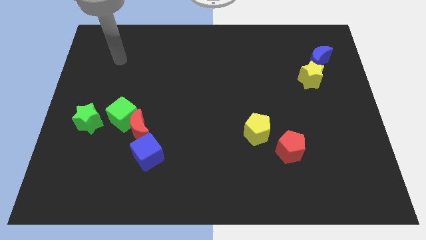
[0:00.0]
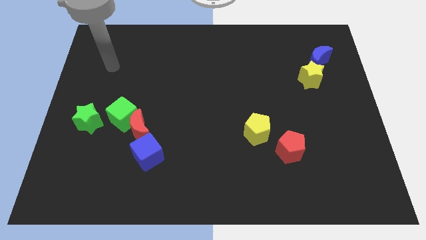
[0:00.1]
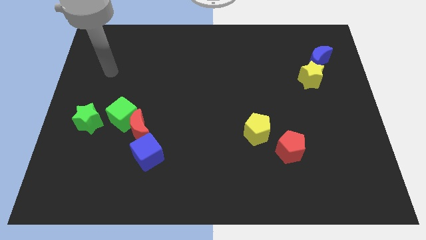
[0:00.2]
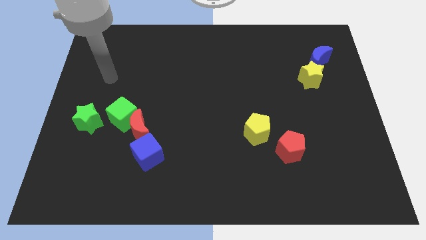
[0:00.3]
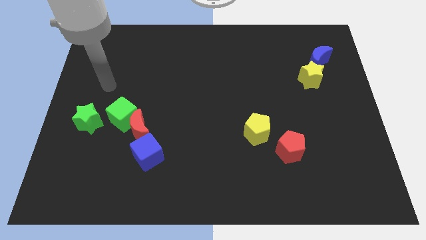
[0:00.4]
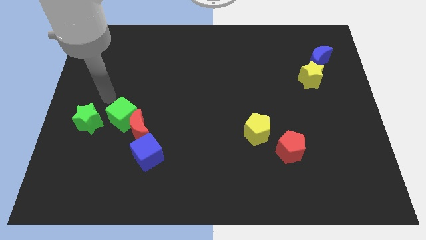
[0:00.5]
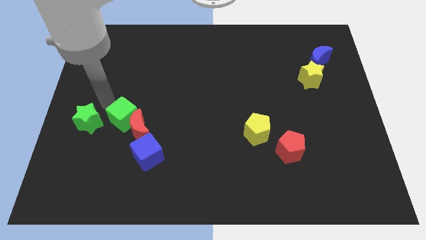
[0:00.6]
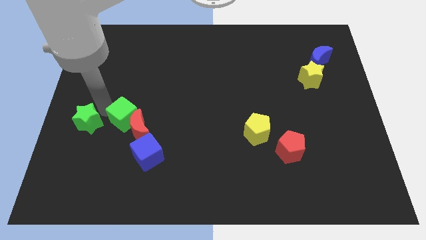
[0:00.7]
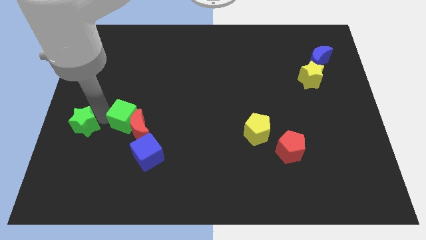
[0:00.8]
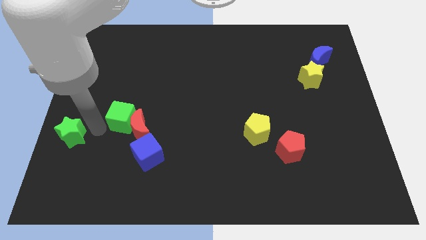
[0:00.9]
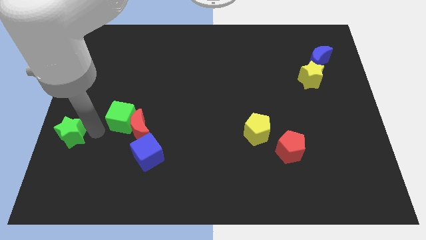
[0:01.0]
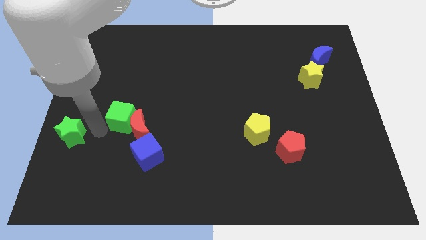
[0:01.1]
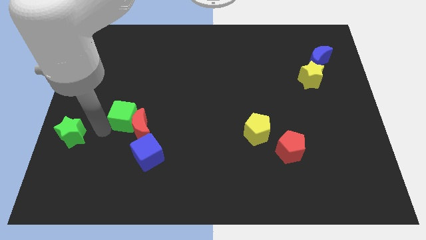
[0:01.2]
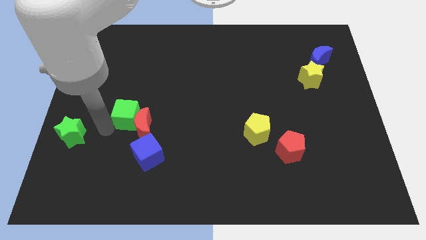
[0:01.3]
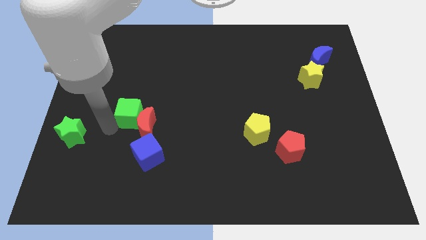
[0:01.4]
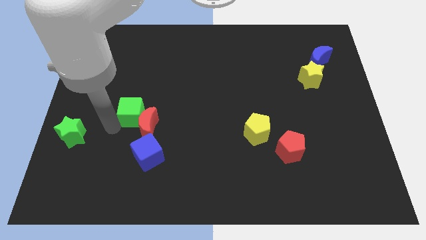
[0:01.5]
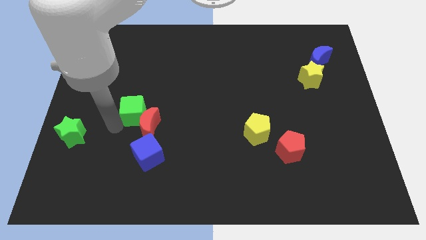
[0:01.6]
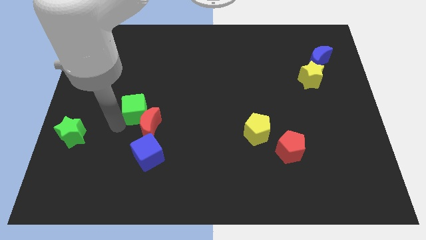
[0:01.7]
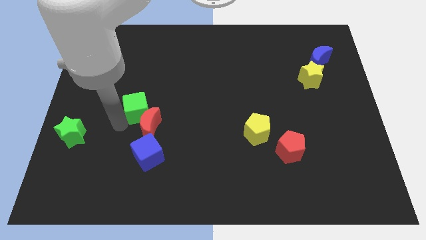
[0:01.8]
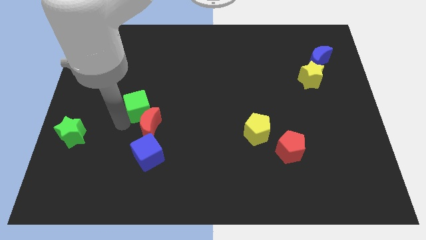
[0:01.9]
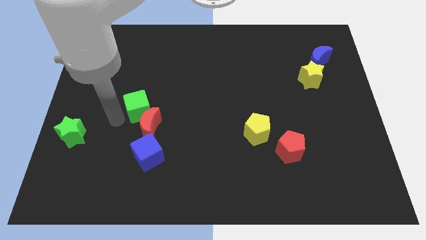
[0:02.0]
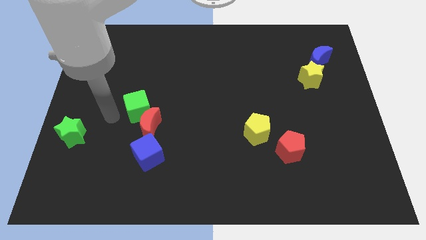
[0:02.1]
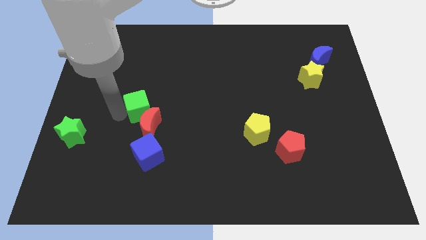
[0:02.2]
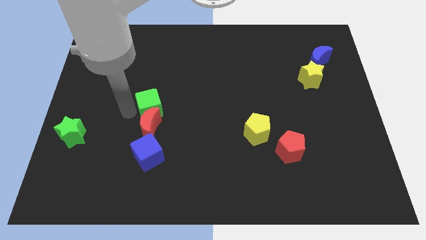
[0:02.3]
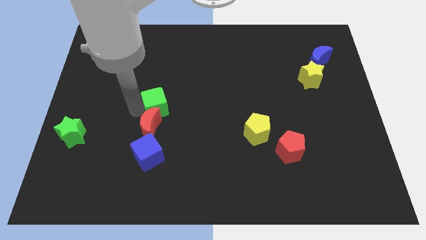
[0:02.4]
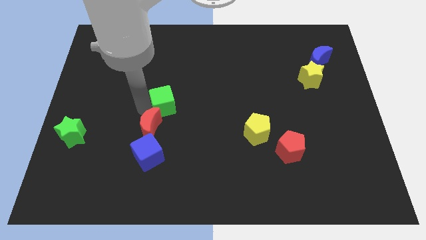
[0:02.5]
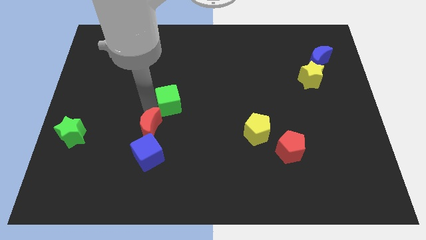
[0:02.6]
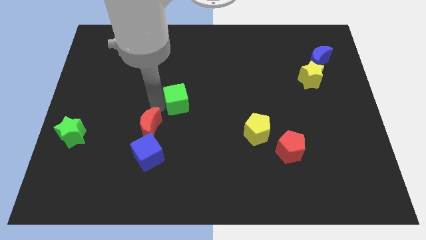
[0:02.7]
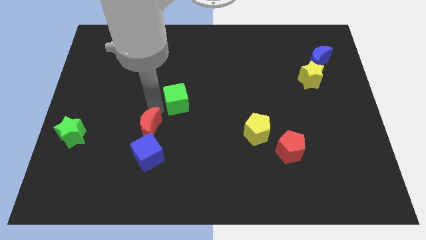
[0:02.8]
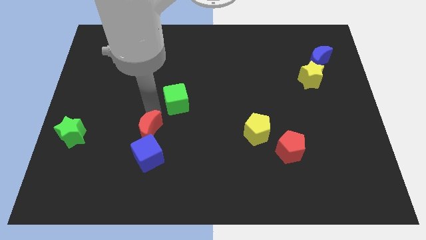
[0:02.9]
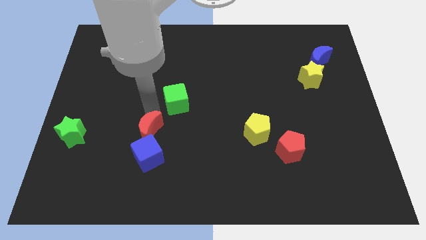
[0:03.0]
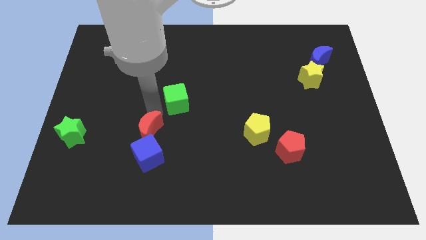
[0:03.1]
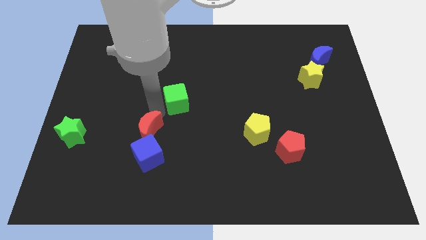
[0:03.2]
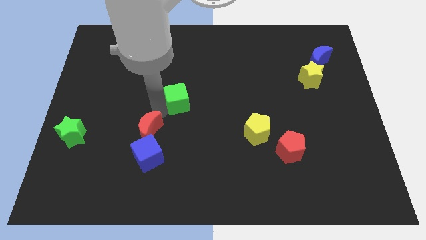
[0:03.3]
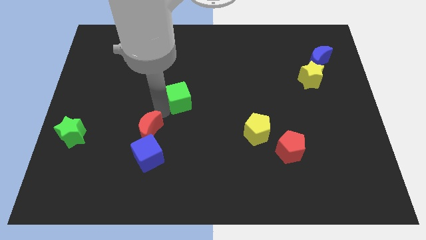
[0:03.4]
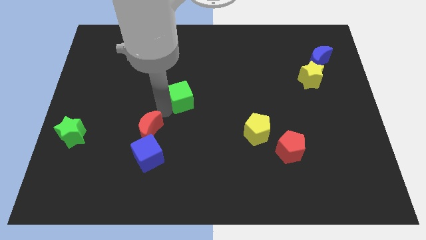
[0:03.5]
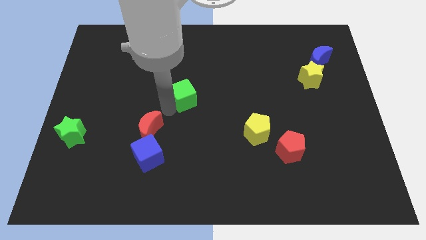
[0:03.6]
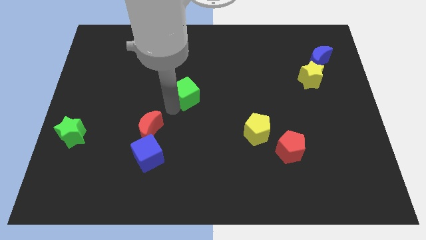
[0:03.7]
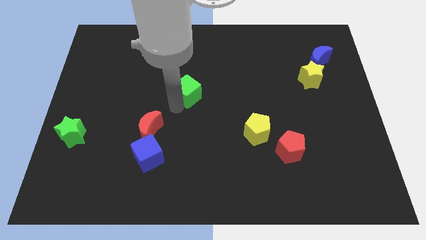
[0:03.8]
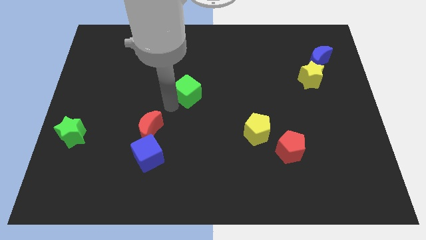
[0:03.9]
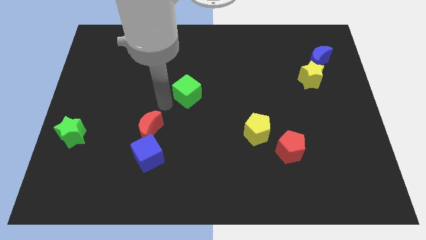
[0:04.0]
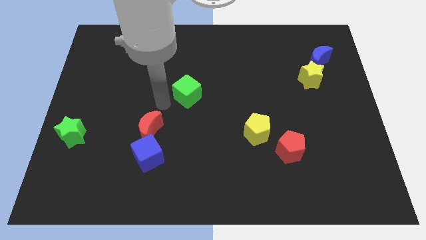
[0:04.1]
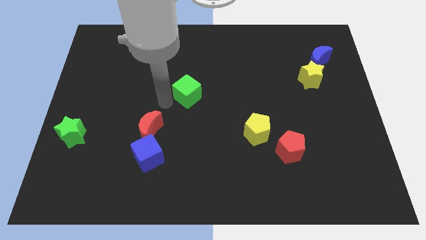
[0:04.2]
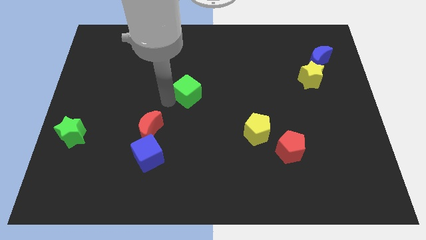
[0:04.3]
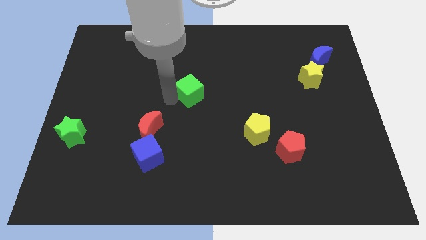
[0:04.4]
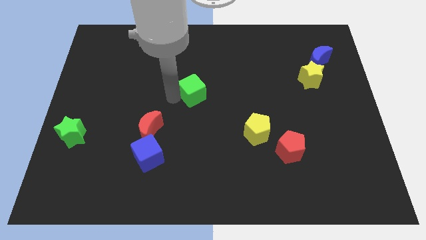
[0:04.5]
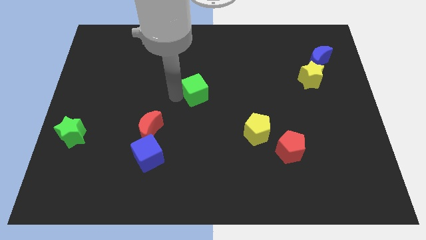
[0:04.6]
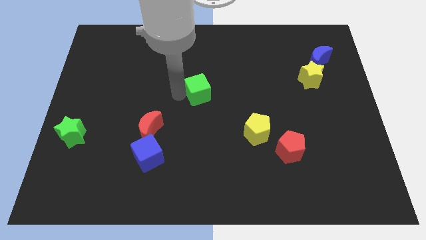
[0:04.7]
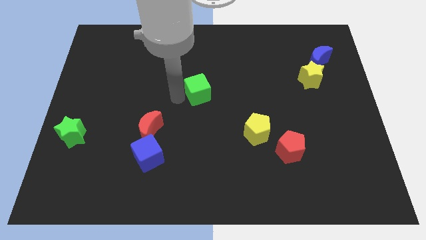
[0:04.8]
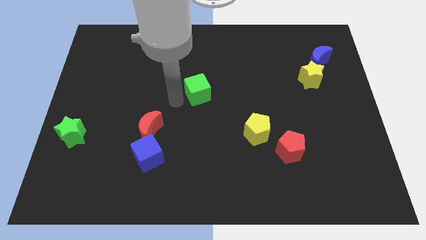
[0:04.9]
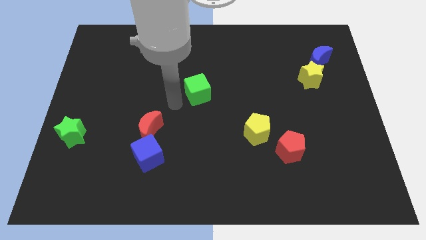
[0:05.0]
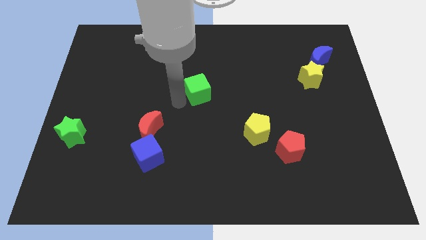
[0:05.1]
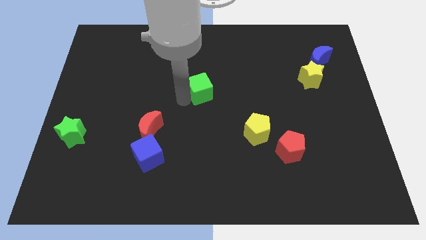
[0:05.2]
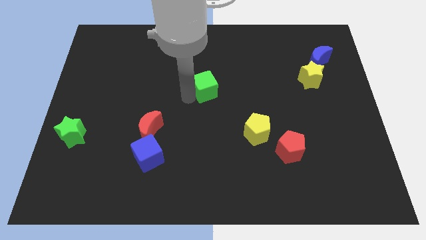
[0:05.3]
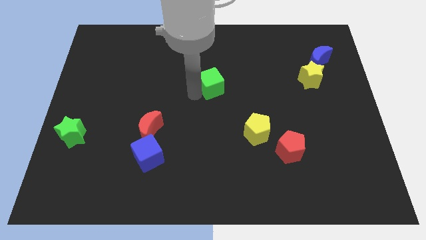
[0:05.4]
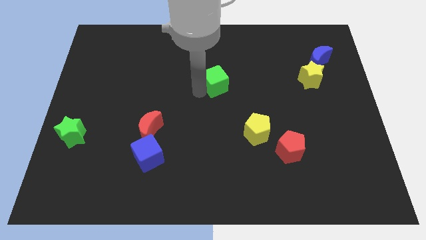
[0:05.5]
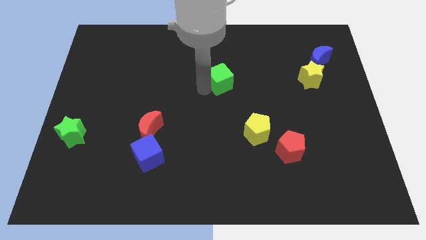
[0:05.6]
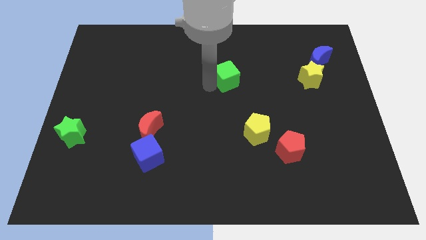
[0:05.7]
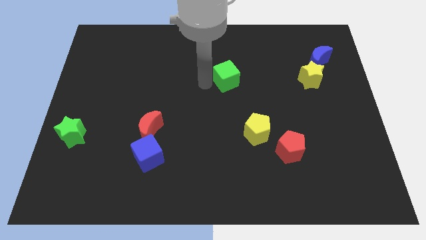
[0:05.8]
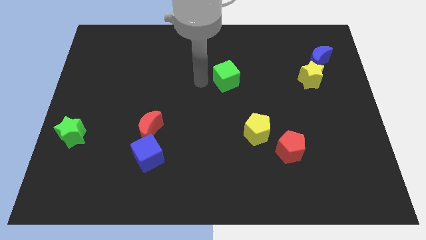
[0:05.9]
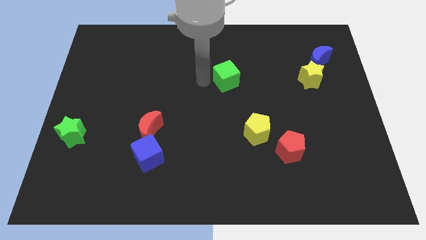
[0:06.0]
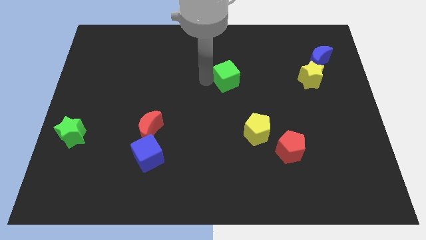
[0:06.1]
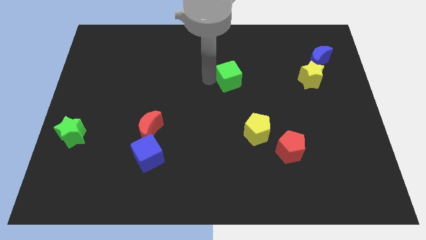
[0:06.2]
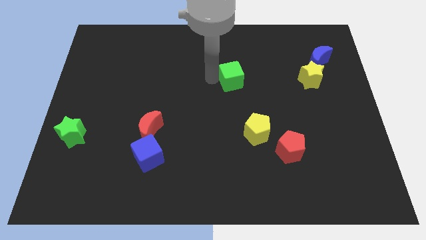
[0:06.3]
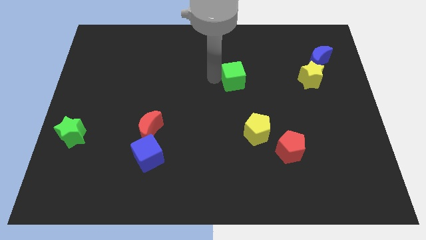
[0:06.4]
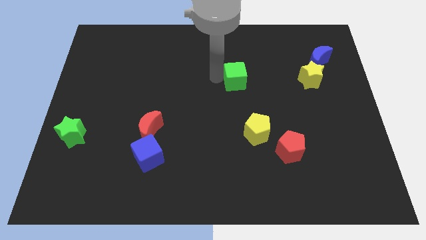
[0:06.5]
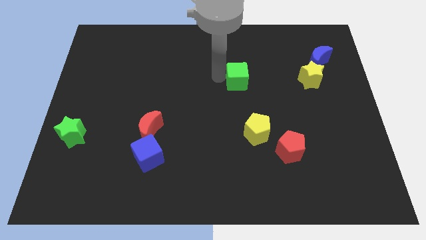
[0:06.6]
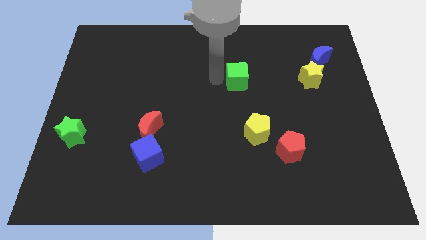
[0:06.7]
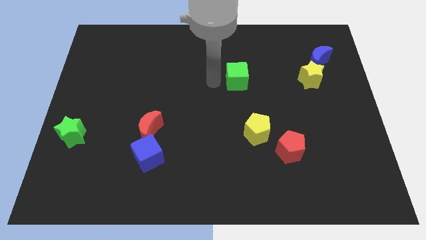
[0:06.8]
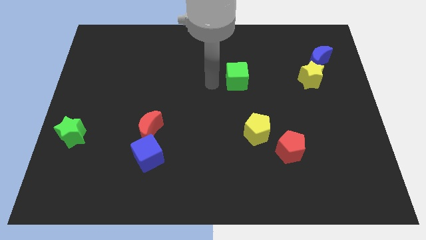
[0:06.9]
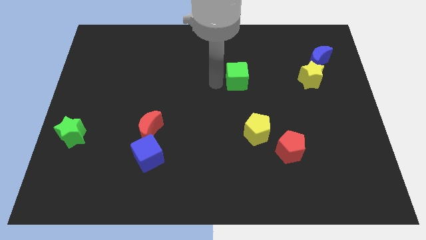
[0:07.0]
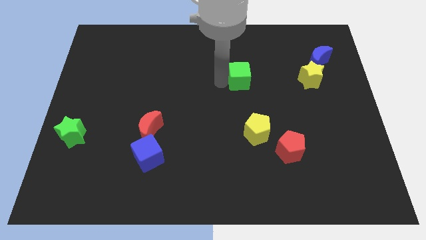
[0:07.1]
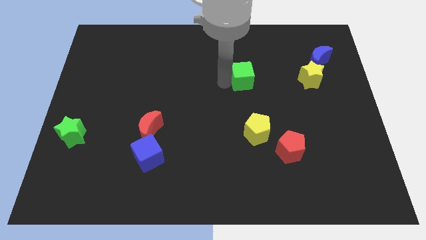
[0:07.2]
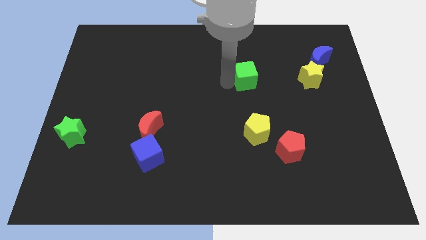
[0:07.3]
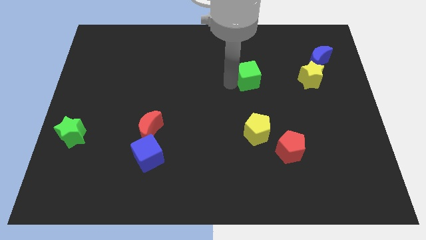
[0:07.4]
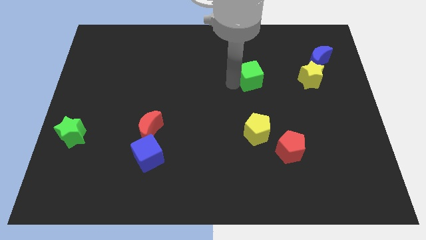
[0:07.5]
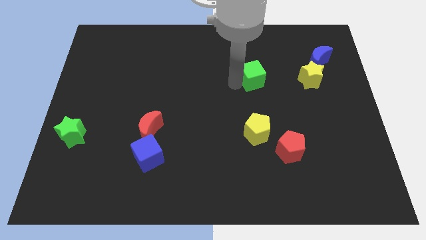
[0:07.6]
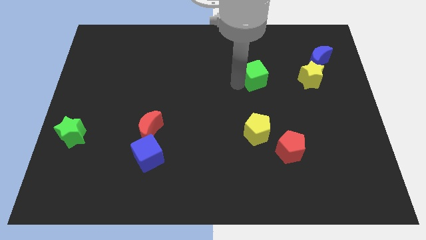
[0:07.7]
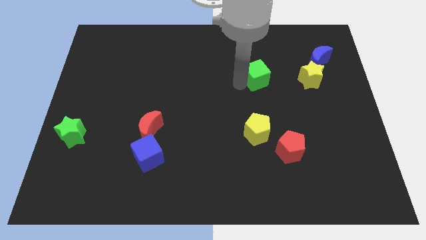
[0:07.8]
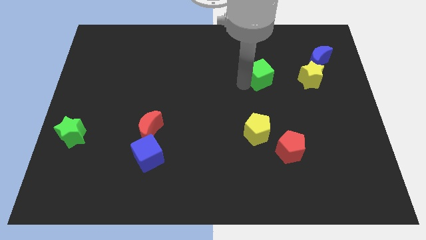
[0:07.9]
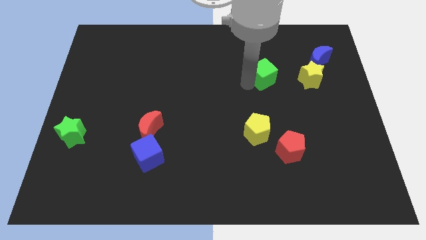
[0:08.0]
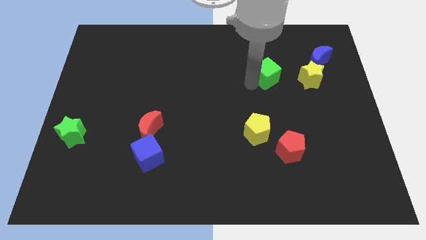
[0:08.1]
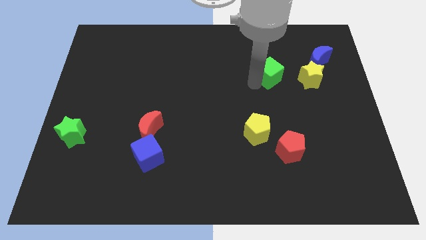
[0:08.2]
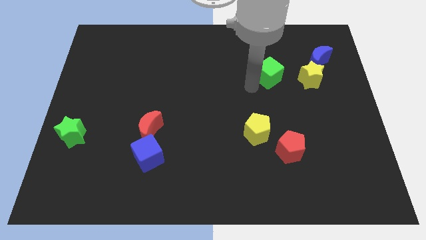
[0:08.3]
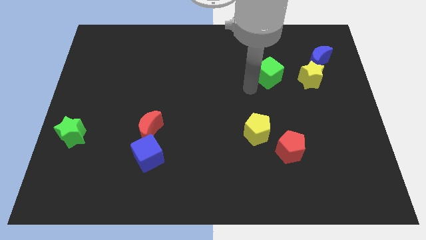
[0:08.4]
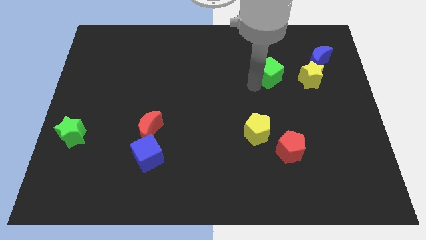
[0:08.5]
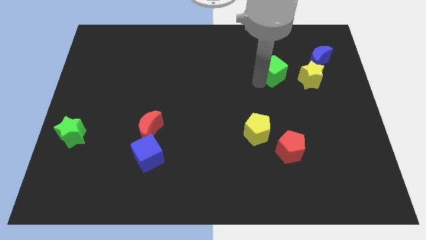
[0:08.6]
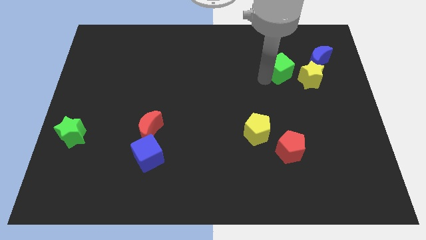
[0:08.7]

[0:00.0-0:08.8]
slide the green cube to the top left side of the yellow star
